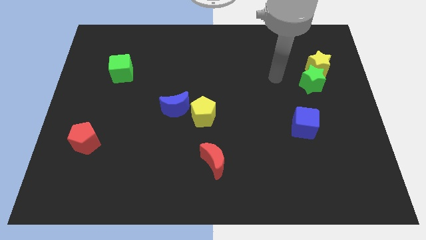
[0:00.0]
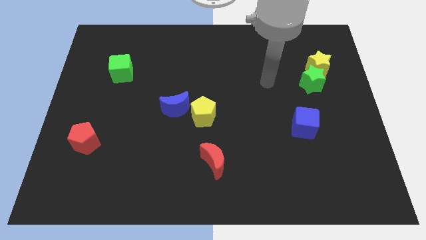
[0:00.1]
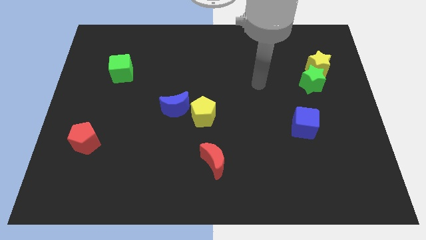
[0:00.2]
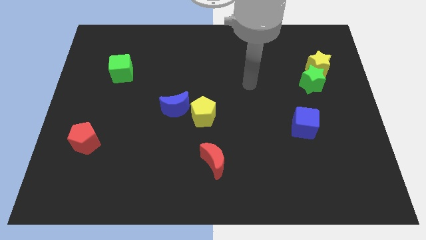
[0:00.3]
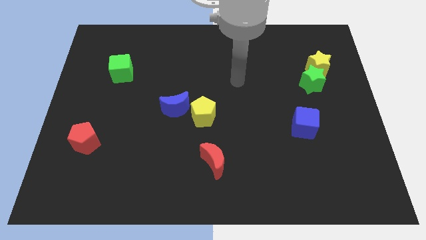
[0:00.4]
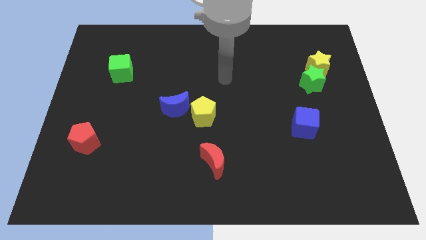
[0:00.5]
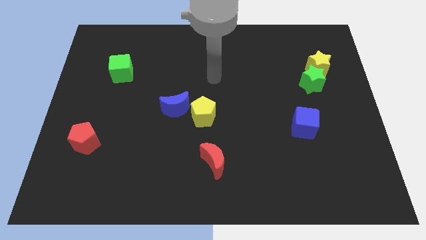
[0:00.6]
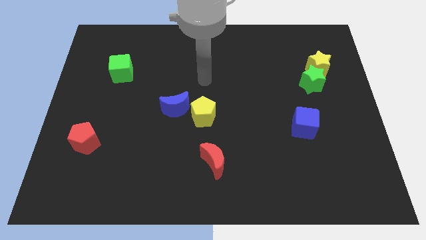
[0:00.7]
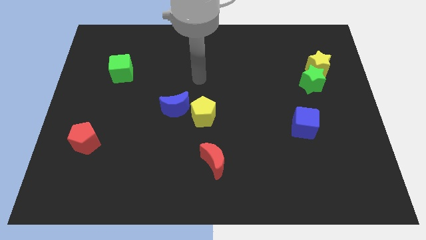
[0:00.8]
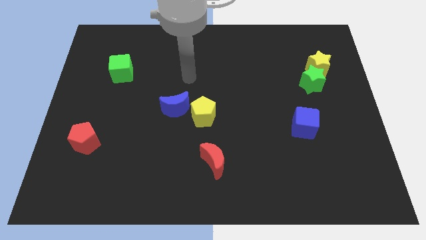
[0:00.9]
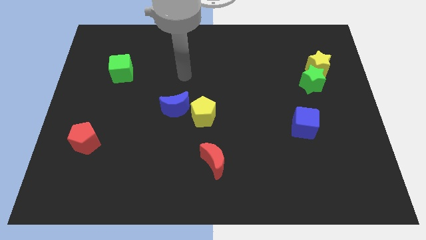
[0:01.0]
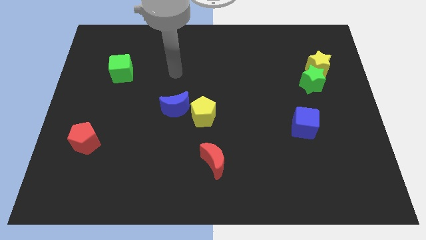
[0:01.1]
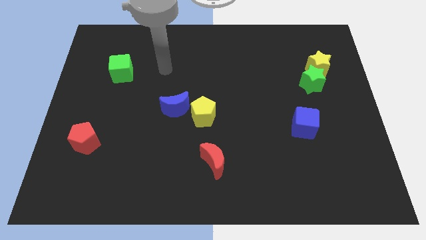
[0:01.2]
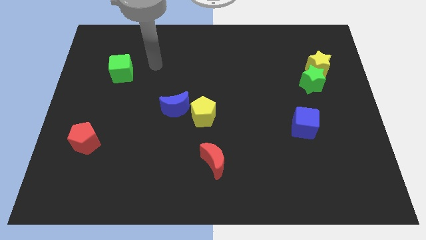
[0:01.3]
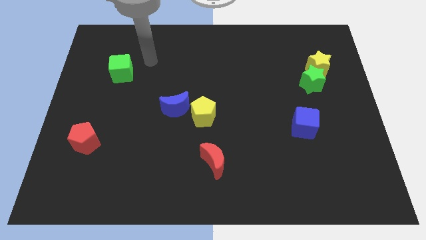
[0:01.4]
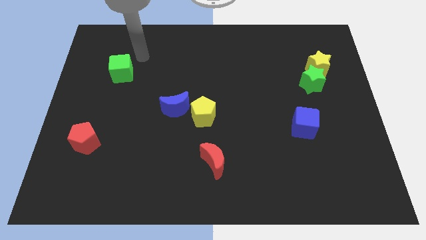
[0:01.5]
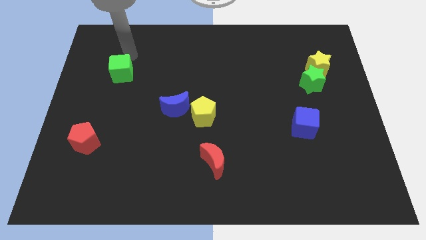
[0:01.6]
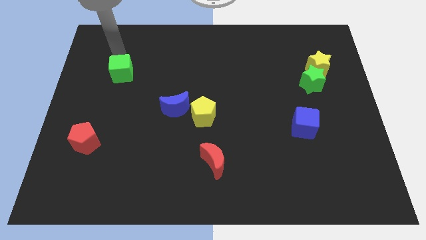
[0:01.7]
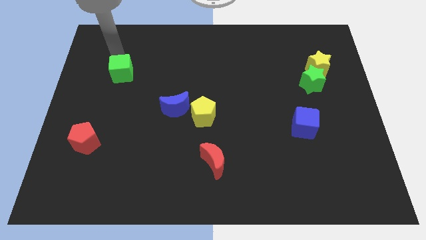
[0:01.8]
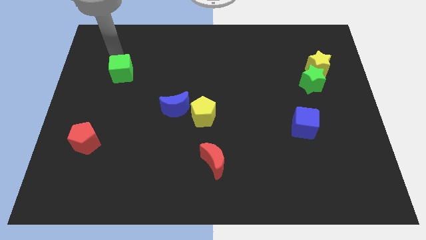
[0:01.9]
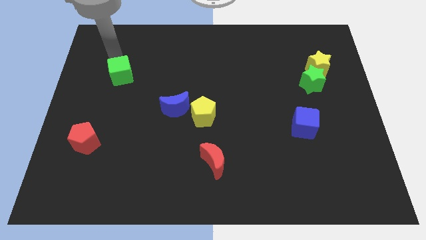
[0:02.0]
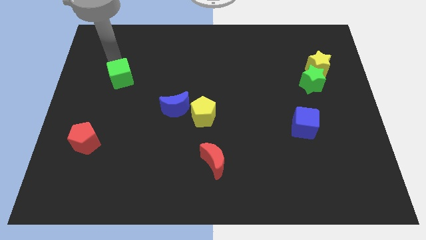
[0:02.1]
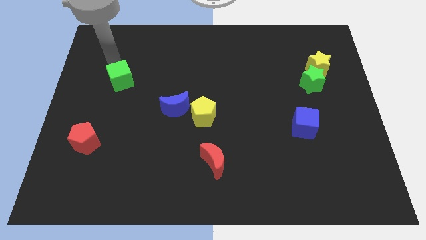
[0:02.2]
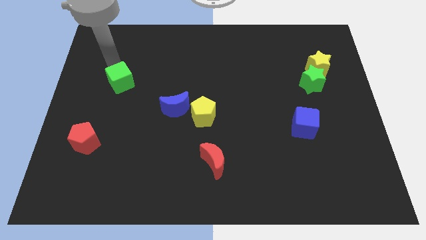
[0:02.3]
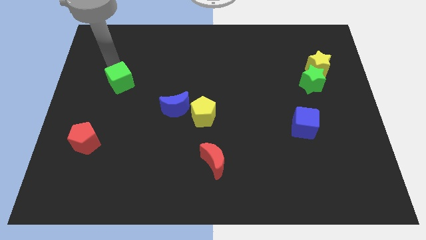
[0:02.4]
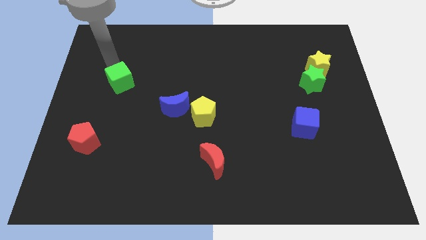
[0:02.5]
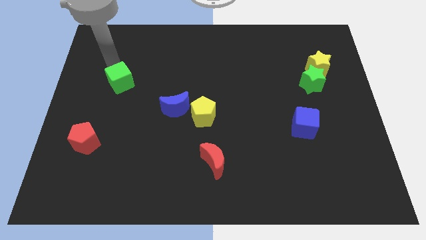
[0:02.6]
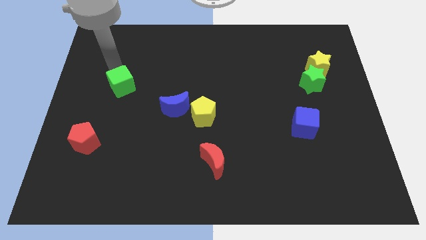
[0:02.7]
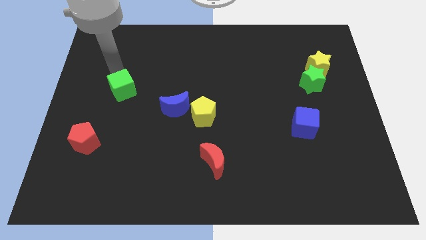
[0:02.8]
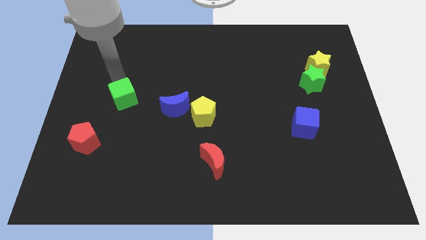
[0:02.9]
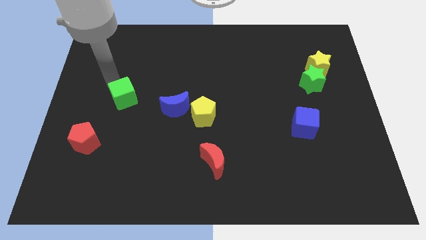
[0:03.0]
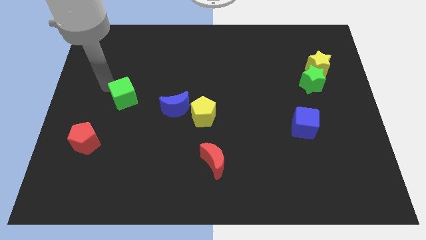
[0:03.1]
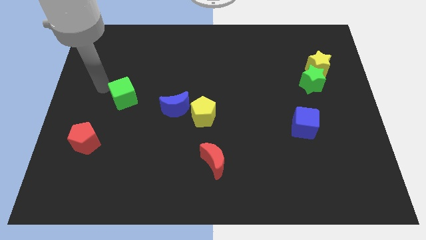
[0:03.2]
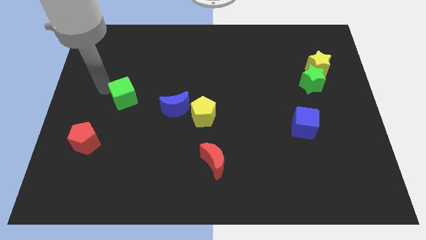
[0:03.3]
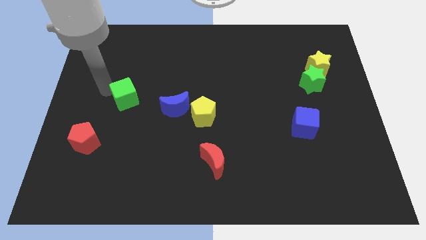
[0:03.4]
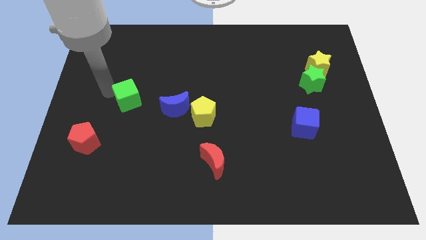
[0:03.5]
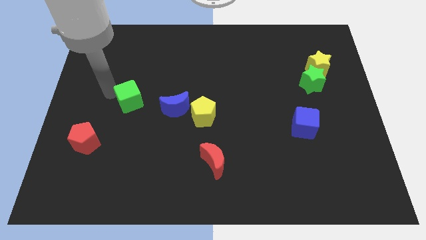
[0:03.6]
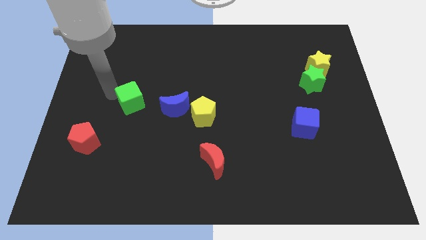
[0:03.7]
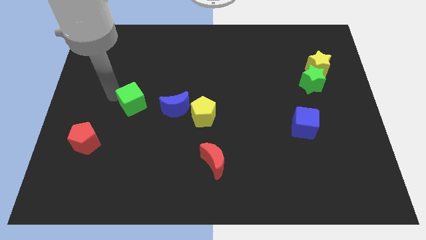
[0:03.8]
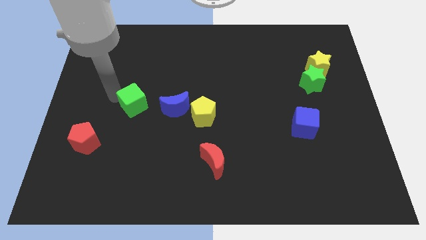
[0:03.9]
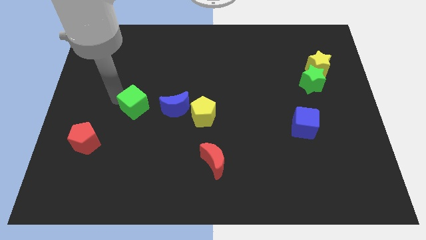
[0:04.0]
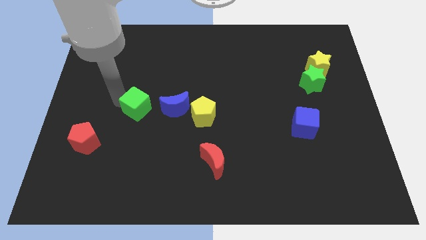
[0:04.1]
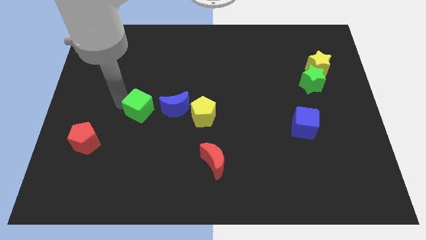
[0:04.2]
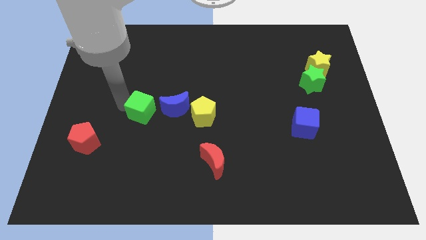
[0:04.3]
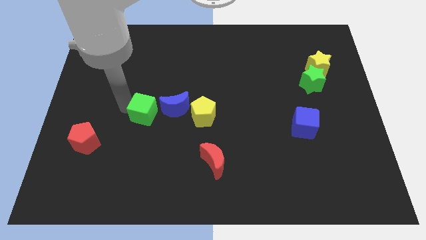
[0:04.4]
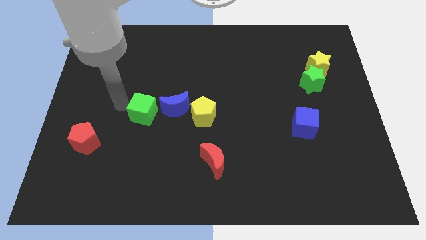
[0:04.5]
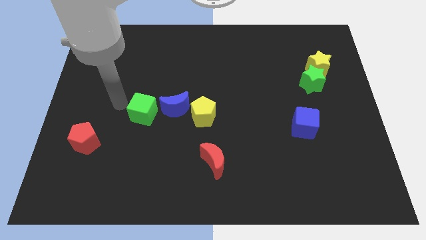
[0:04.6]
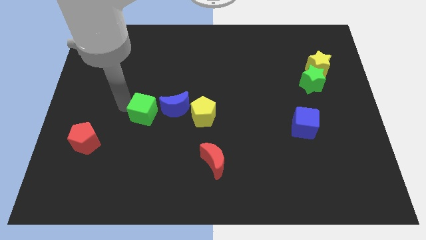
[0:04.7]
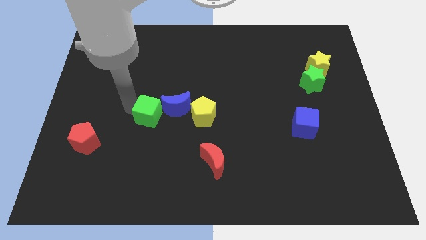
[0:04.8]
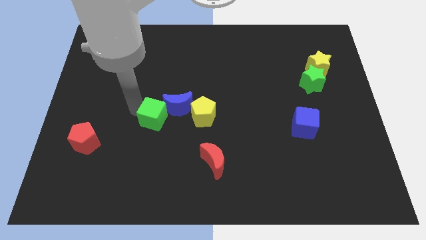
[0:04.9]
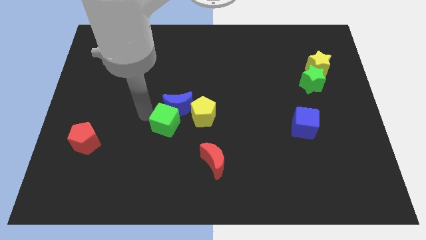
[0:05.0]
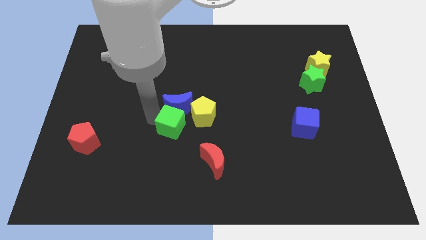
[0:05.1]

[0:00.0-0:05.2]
push the green cube to the bottom right side of the blue moon

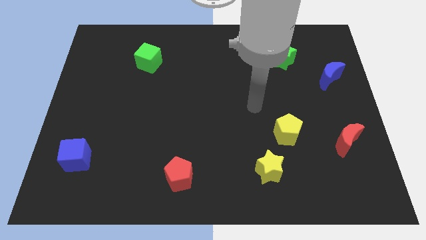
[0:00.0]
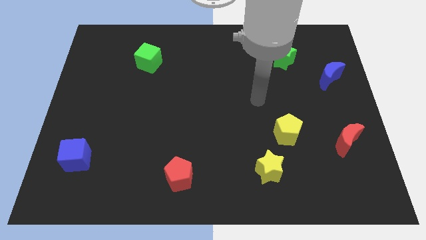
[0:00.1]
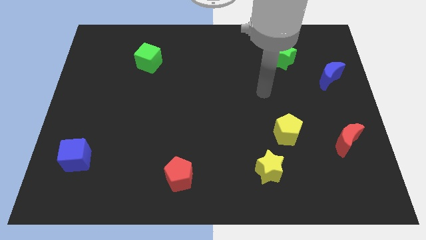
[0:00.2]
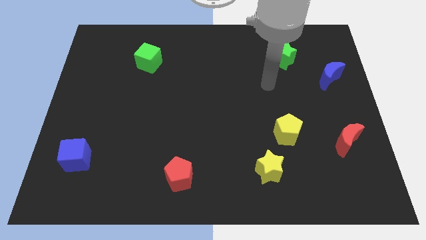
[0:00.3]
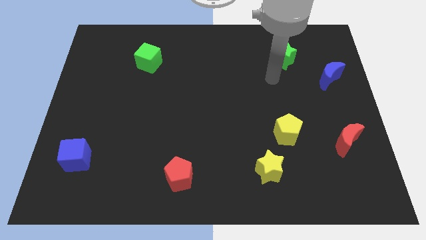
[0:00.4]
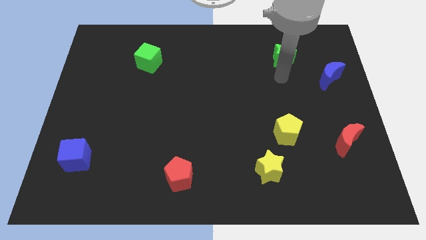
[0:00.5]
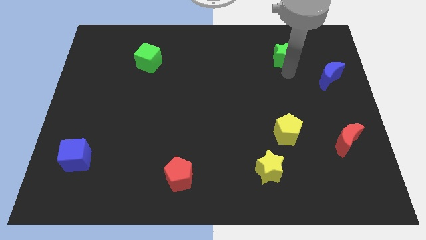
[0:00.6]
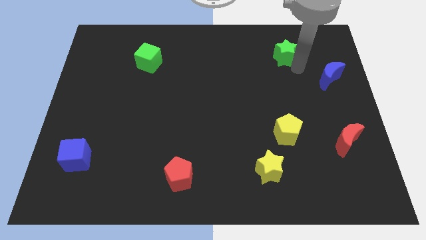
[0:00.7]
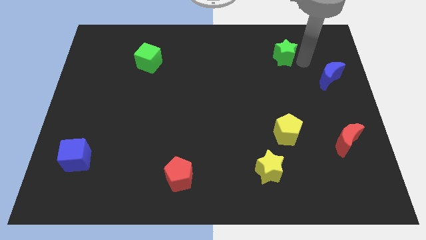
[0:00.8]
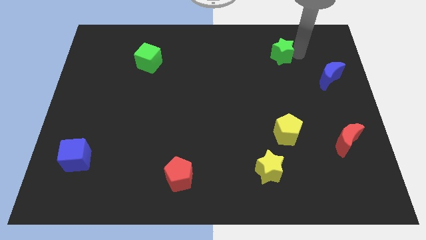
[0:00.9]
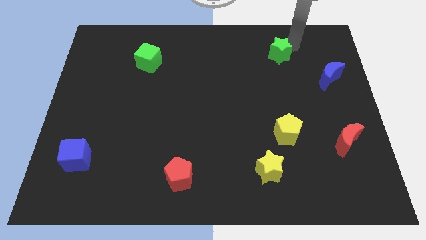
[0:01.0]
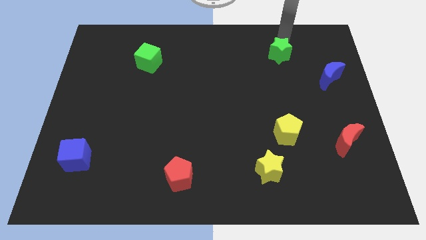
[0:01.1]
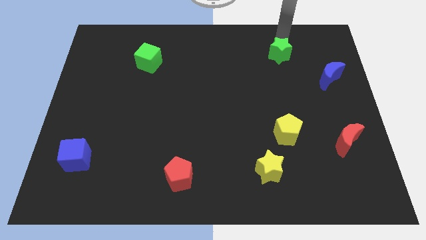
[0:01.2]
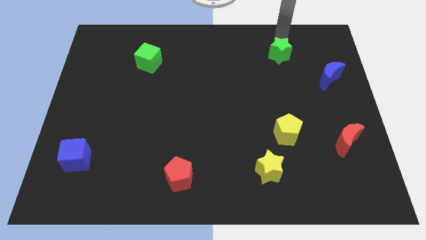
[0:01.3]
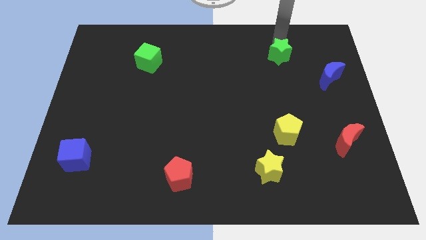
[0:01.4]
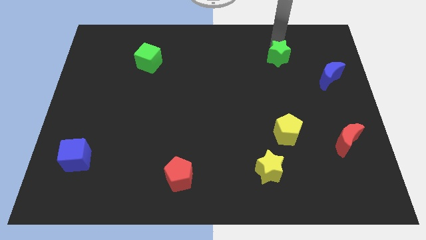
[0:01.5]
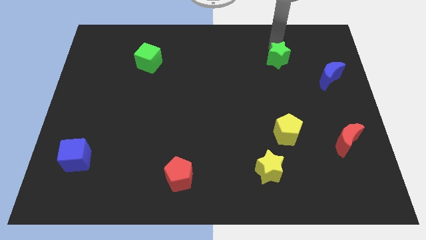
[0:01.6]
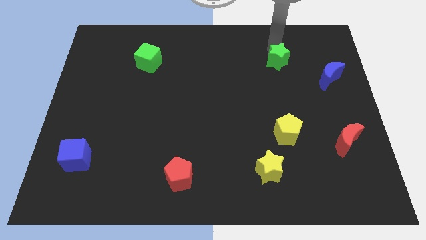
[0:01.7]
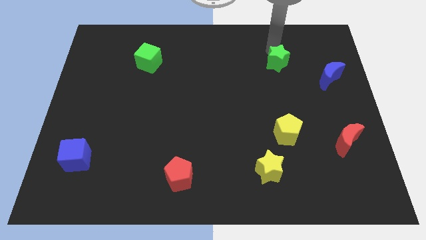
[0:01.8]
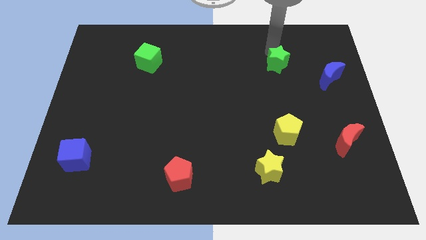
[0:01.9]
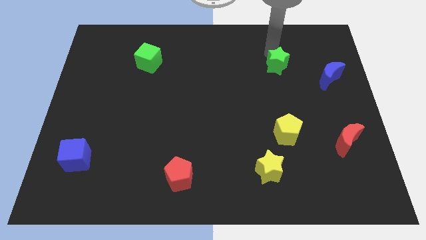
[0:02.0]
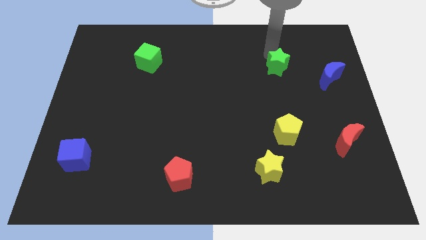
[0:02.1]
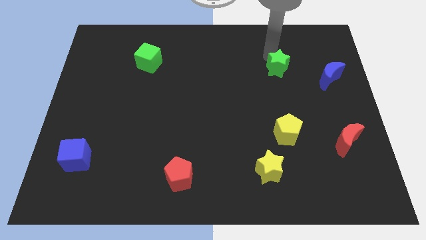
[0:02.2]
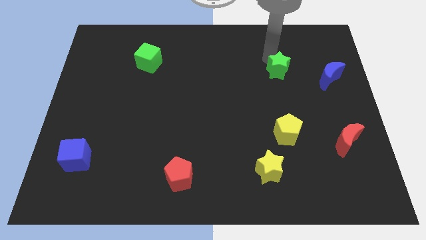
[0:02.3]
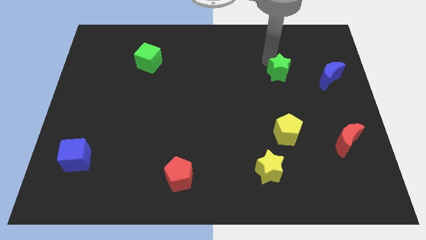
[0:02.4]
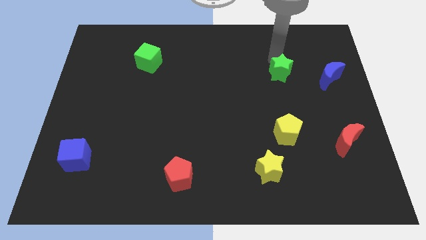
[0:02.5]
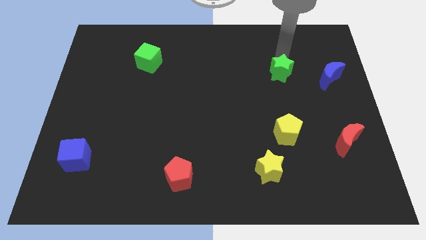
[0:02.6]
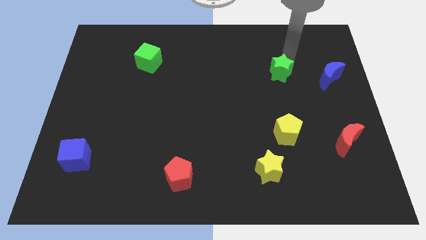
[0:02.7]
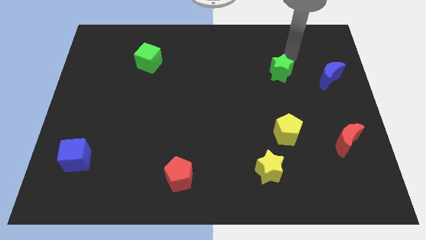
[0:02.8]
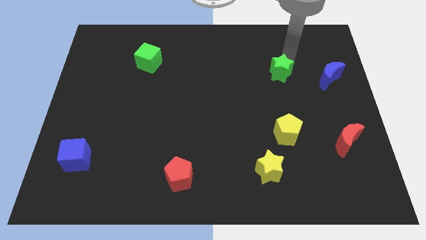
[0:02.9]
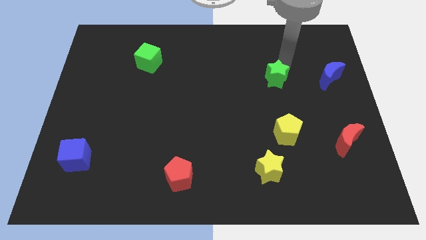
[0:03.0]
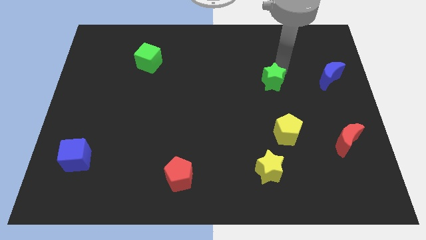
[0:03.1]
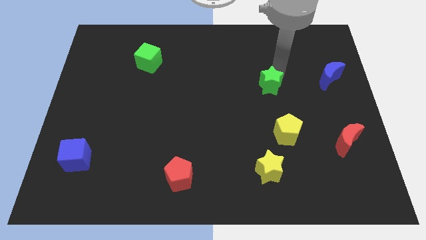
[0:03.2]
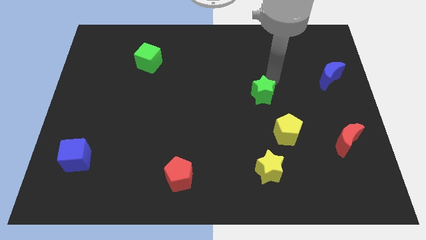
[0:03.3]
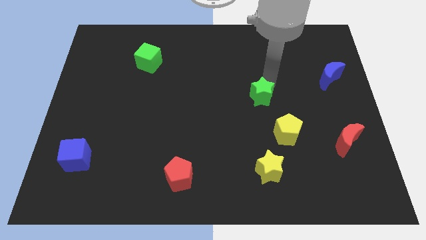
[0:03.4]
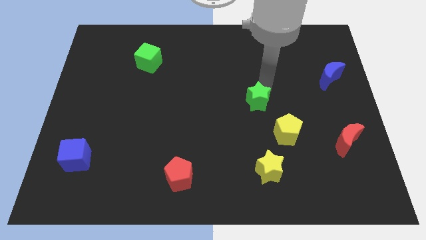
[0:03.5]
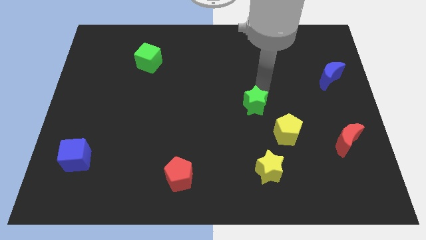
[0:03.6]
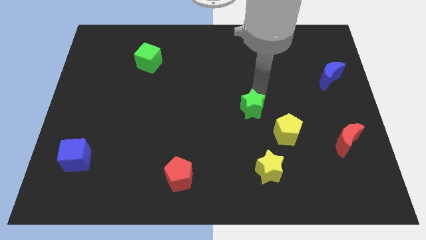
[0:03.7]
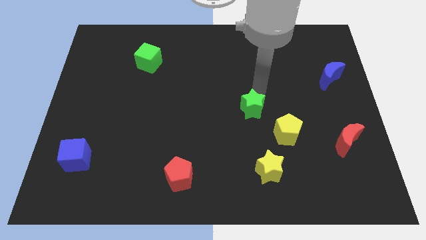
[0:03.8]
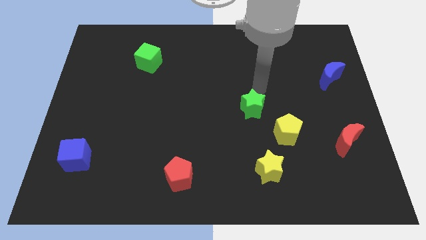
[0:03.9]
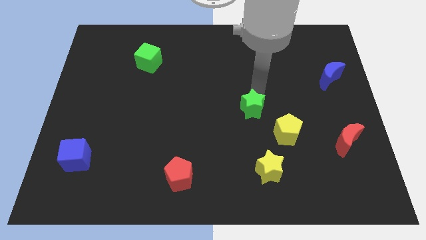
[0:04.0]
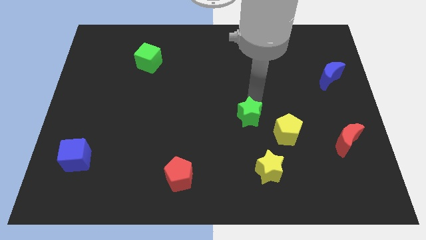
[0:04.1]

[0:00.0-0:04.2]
slide the green star left of the yellow pentagon
